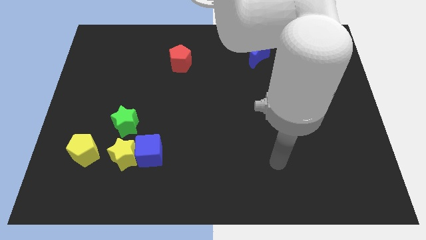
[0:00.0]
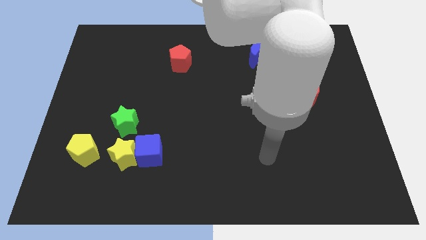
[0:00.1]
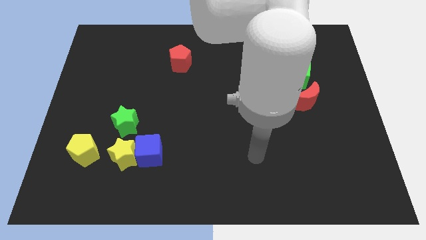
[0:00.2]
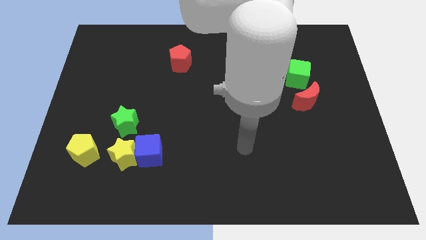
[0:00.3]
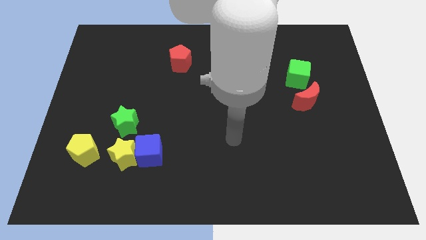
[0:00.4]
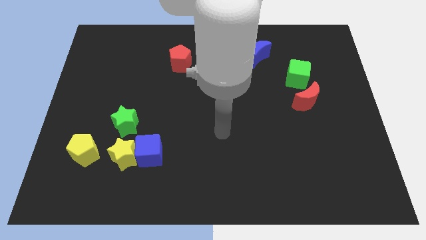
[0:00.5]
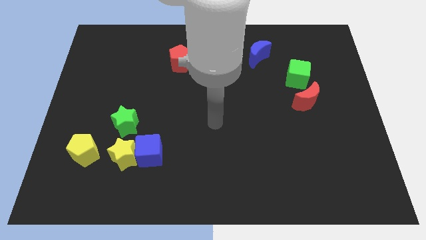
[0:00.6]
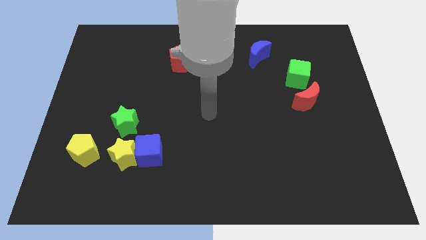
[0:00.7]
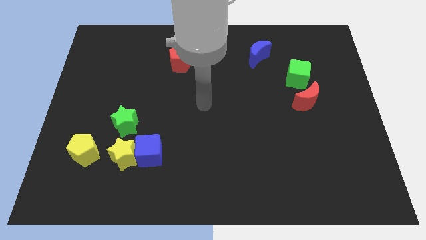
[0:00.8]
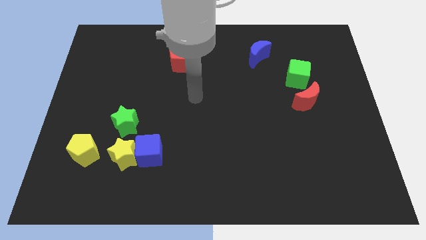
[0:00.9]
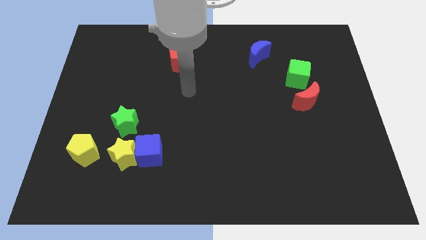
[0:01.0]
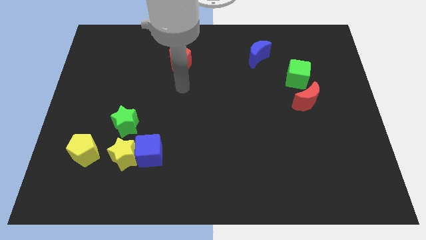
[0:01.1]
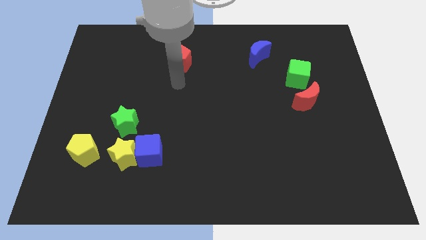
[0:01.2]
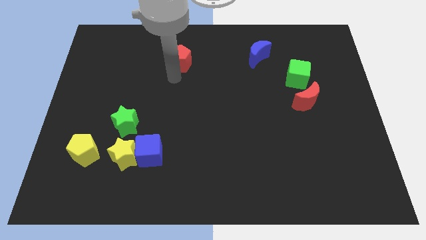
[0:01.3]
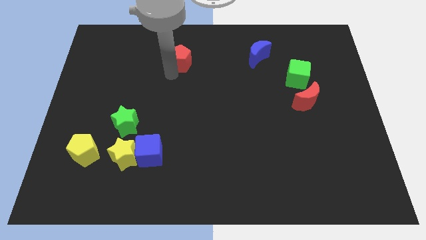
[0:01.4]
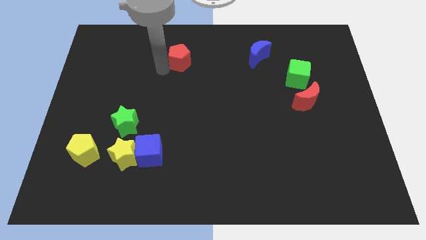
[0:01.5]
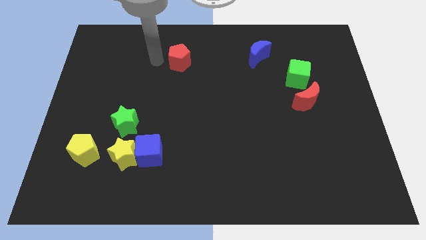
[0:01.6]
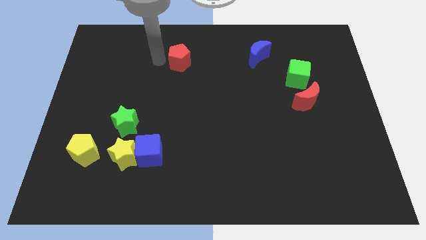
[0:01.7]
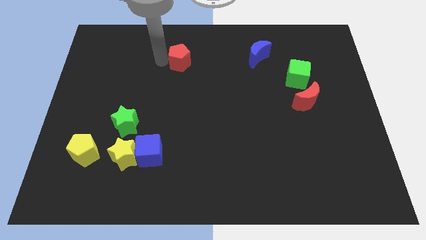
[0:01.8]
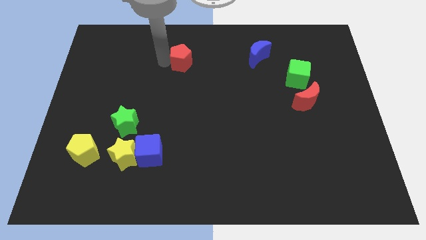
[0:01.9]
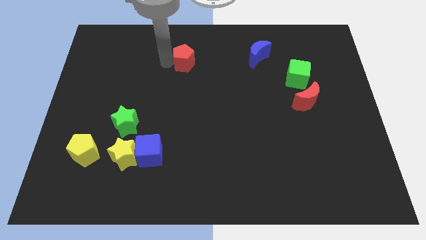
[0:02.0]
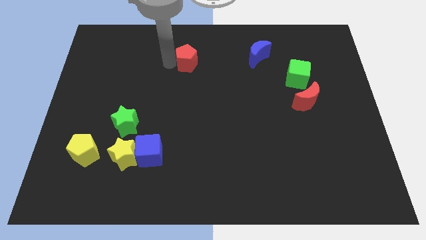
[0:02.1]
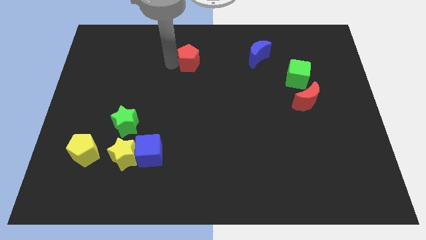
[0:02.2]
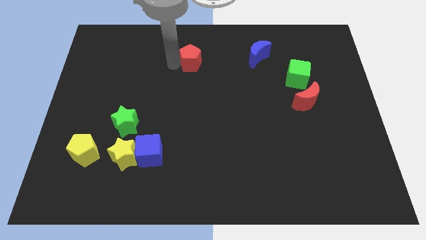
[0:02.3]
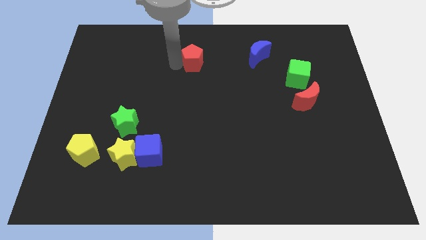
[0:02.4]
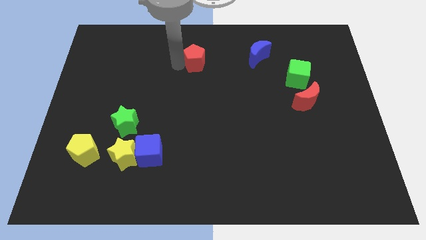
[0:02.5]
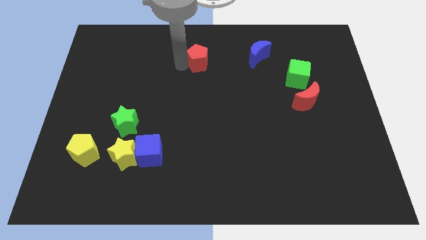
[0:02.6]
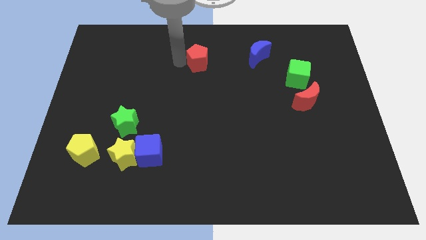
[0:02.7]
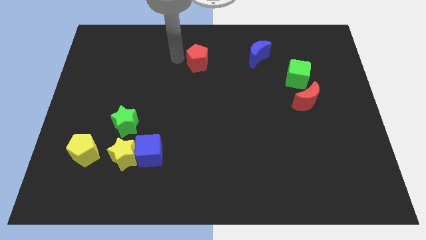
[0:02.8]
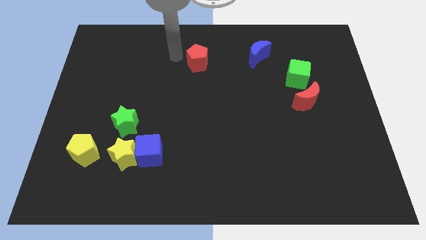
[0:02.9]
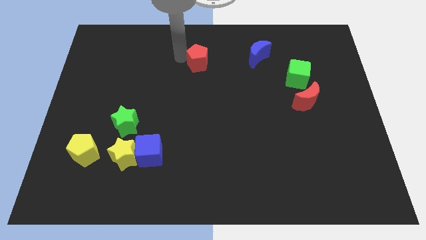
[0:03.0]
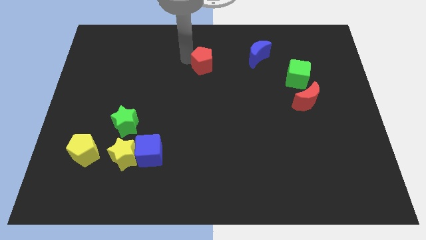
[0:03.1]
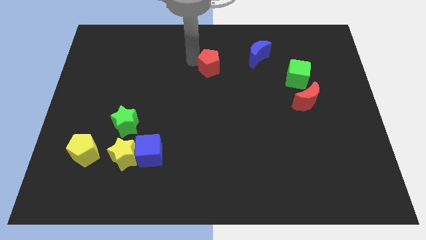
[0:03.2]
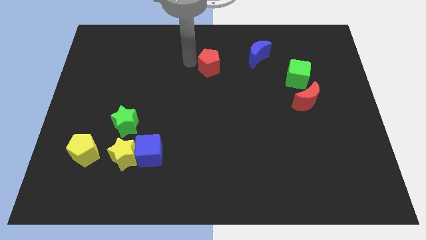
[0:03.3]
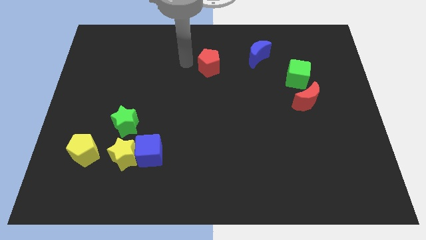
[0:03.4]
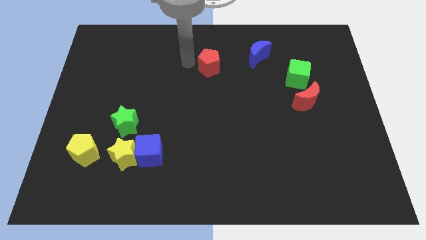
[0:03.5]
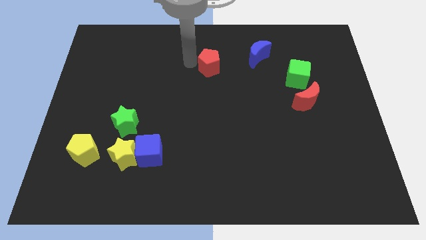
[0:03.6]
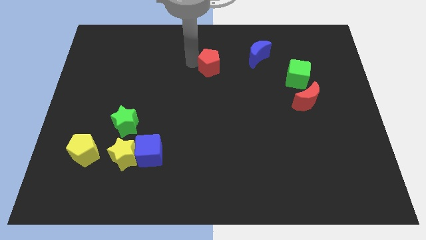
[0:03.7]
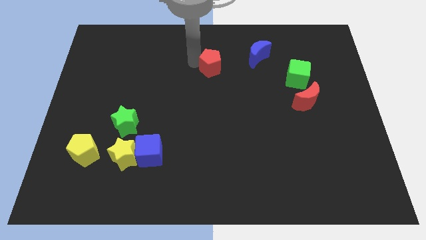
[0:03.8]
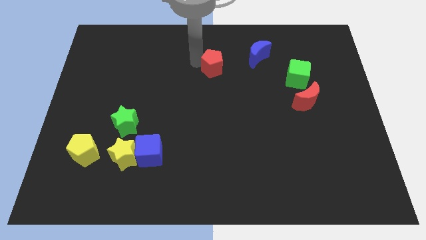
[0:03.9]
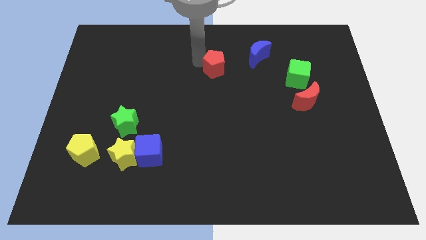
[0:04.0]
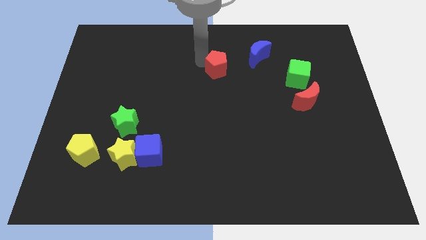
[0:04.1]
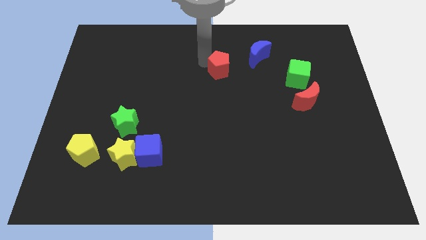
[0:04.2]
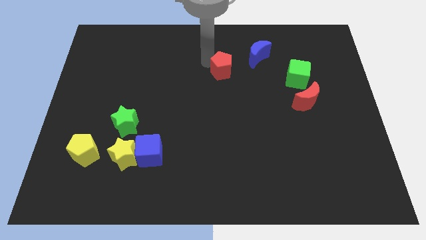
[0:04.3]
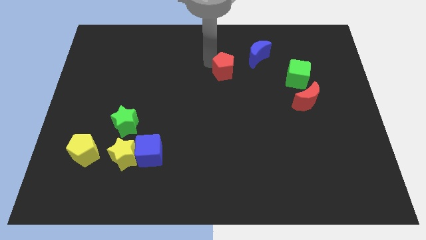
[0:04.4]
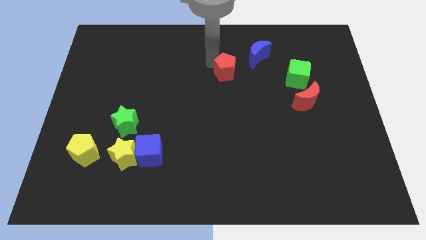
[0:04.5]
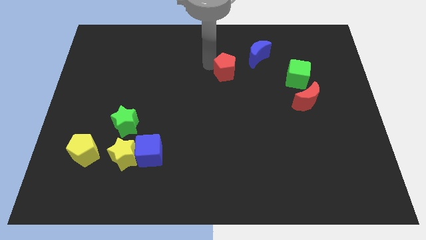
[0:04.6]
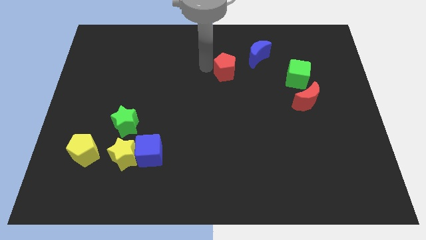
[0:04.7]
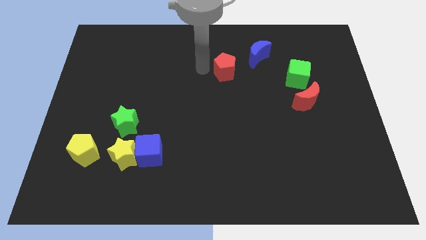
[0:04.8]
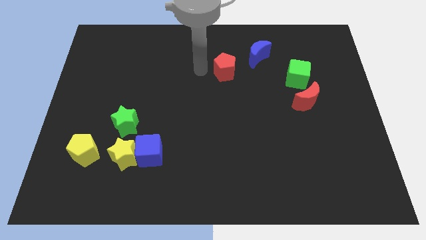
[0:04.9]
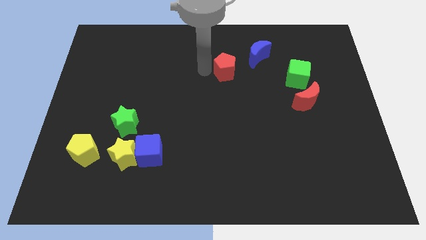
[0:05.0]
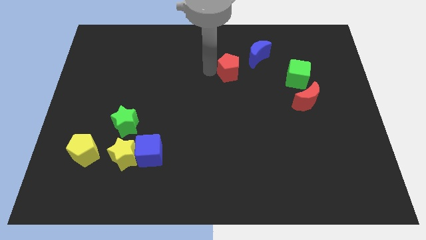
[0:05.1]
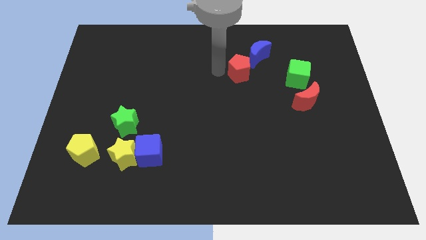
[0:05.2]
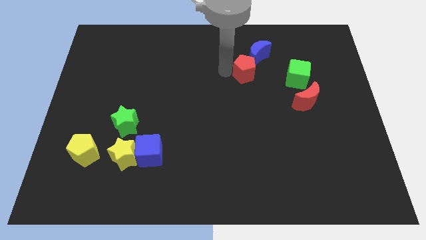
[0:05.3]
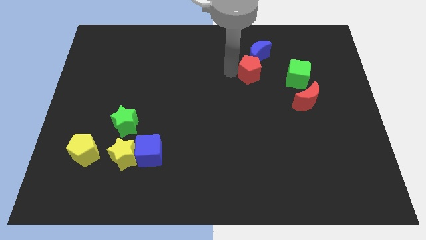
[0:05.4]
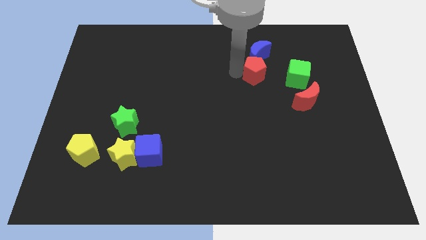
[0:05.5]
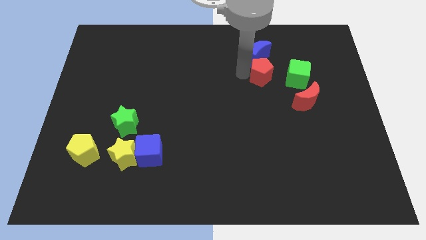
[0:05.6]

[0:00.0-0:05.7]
push the red pentagon right

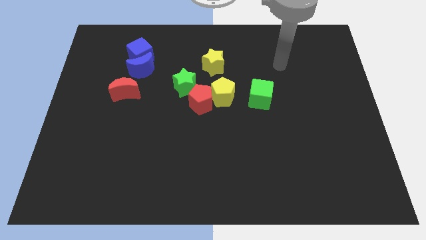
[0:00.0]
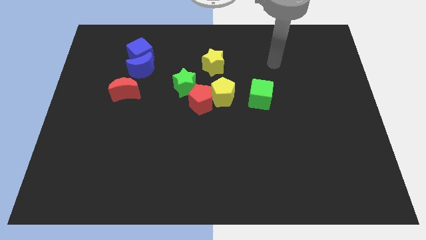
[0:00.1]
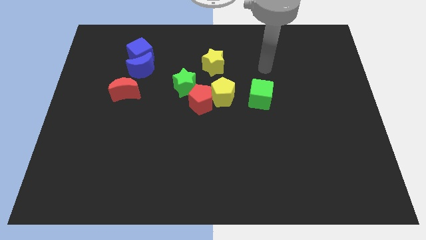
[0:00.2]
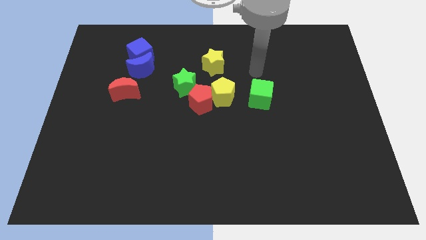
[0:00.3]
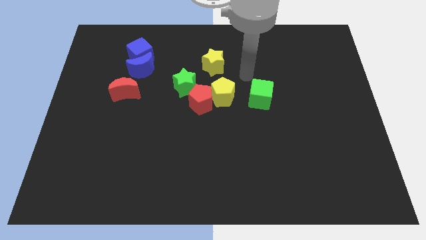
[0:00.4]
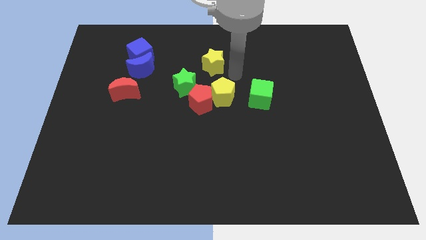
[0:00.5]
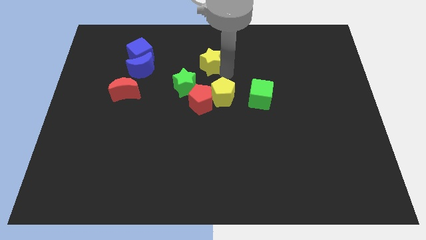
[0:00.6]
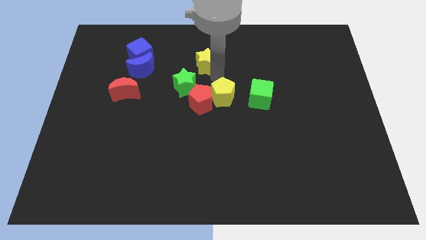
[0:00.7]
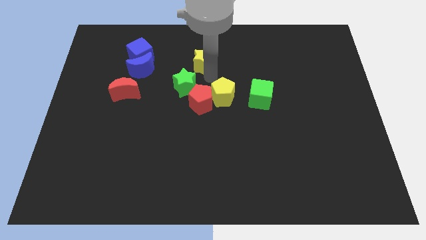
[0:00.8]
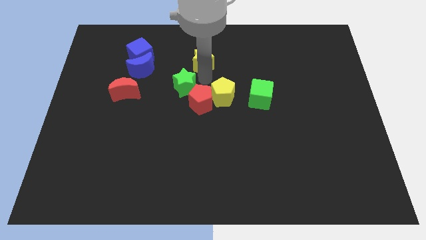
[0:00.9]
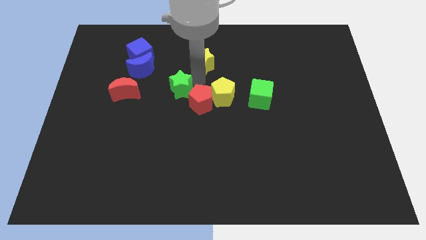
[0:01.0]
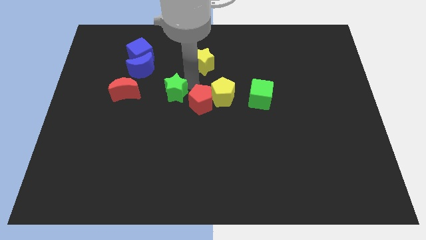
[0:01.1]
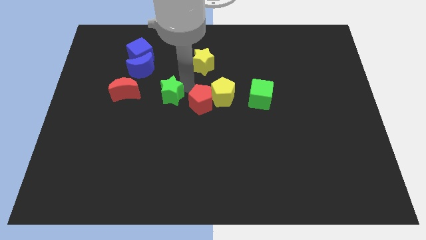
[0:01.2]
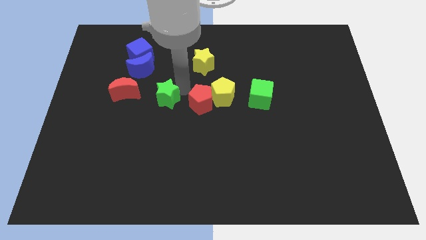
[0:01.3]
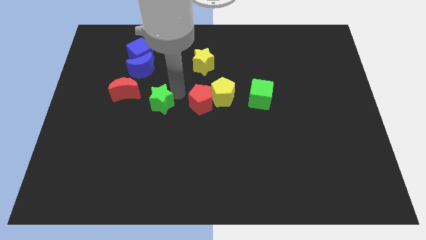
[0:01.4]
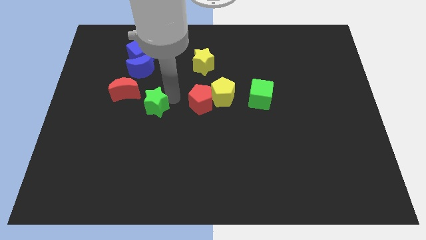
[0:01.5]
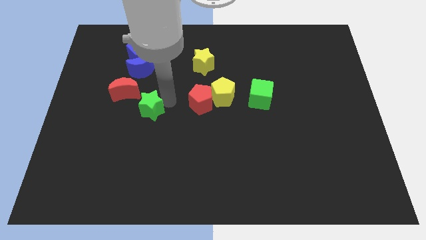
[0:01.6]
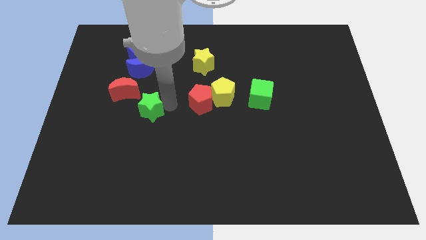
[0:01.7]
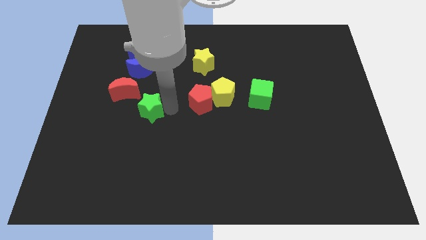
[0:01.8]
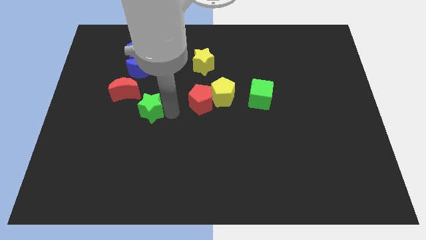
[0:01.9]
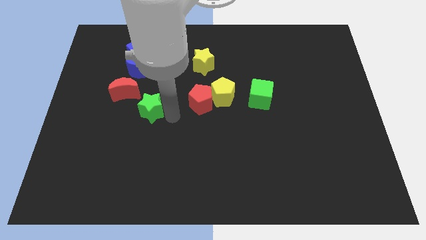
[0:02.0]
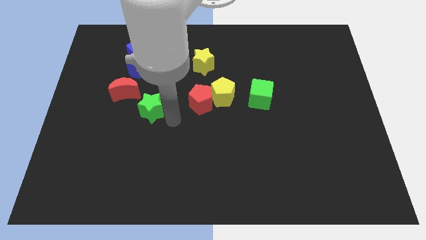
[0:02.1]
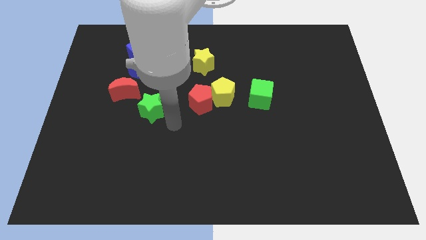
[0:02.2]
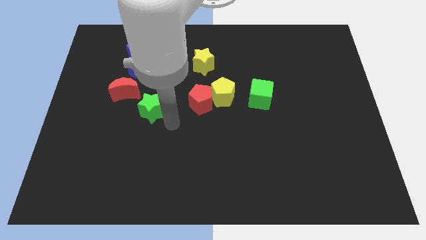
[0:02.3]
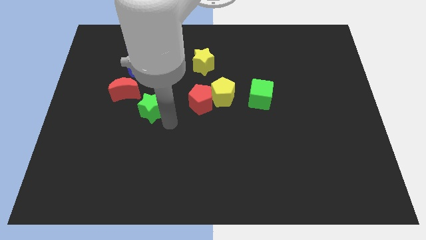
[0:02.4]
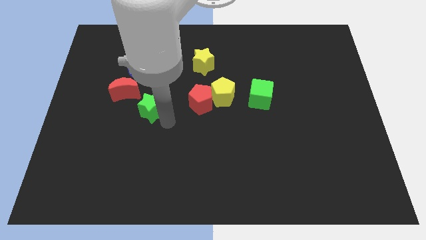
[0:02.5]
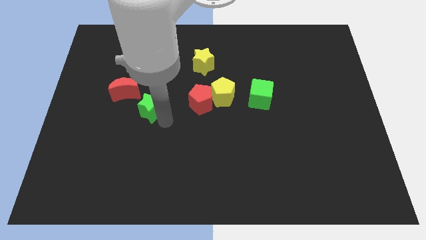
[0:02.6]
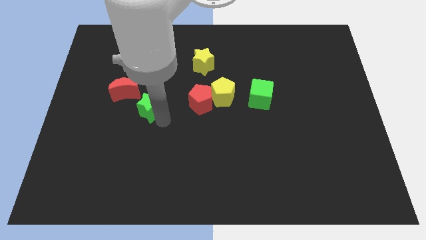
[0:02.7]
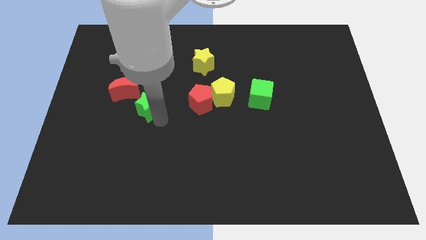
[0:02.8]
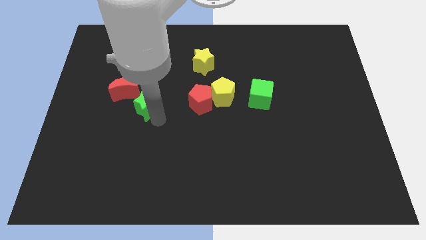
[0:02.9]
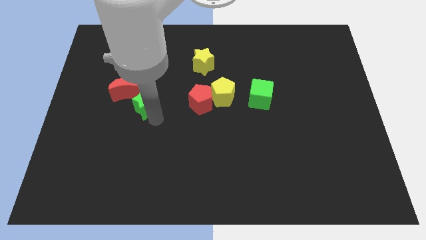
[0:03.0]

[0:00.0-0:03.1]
push the green star left a little
